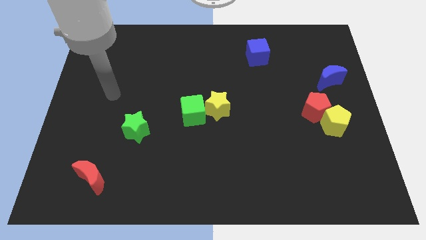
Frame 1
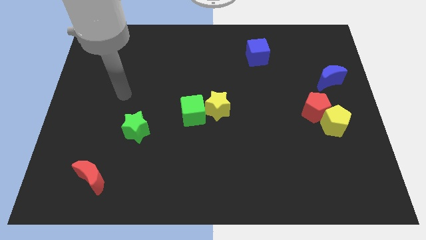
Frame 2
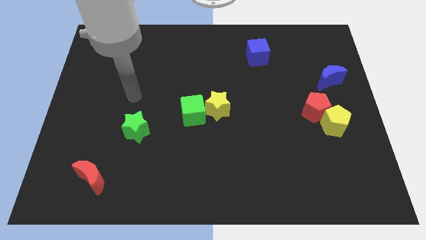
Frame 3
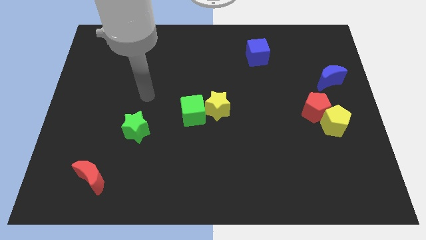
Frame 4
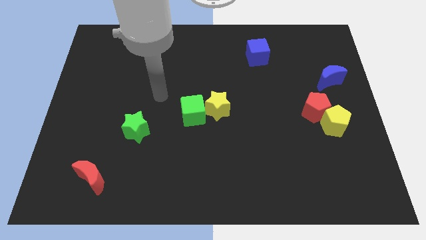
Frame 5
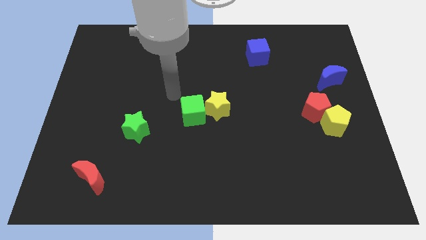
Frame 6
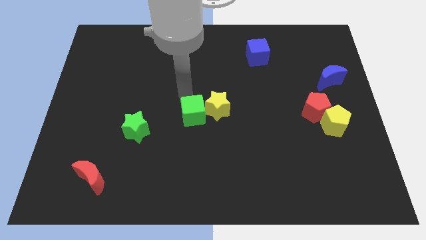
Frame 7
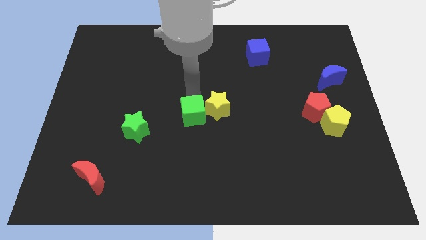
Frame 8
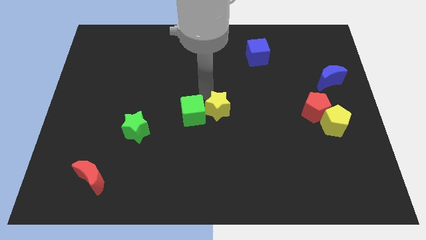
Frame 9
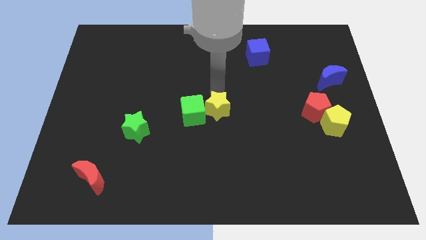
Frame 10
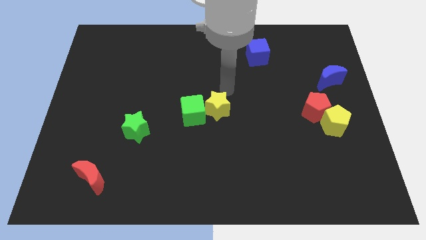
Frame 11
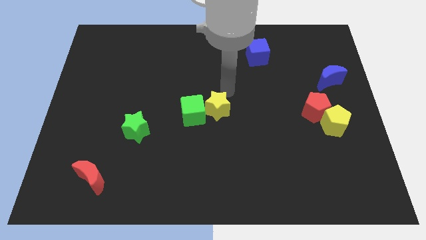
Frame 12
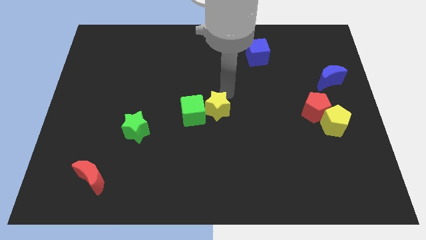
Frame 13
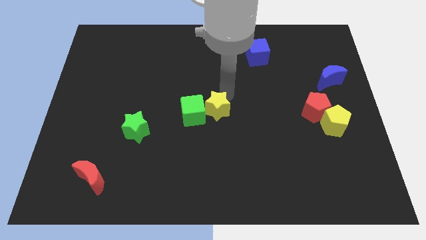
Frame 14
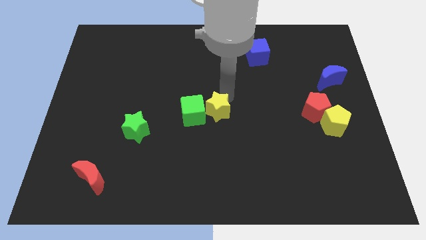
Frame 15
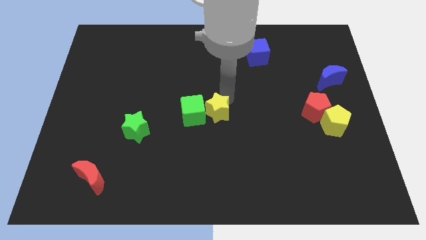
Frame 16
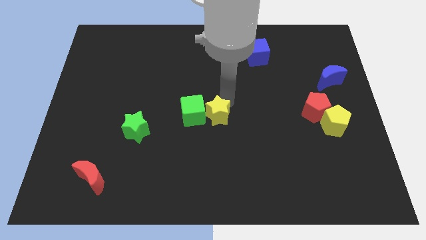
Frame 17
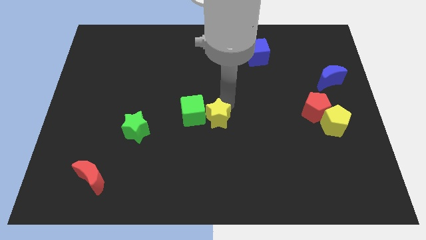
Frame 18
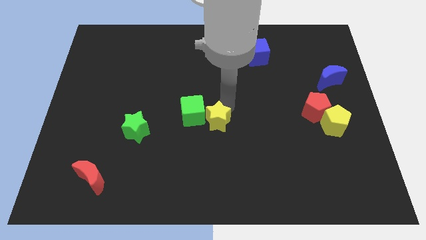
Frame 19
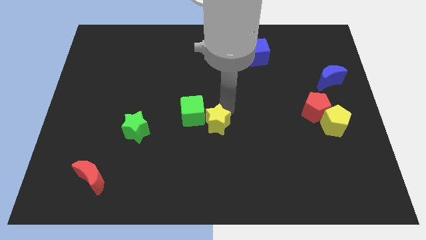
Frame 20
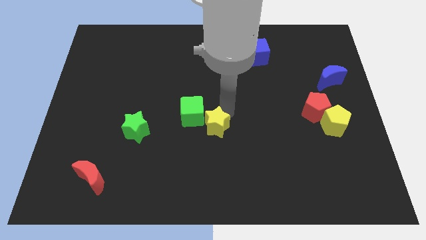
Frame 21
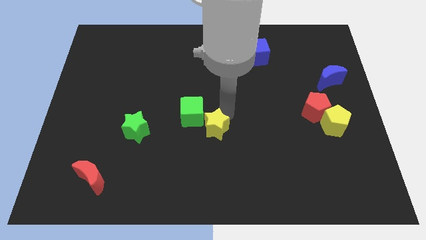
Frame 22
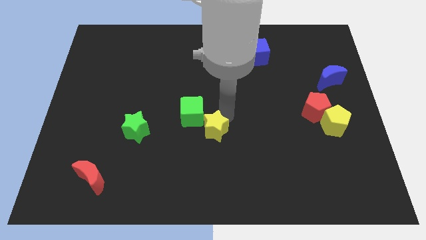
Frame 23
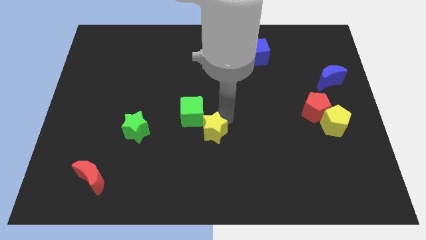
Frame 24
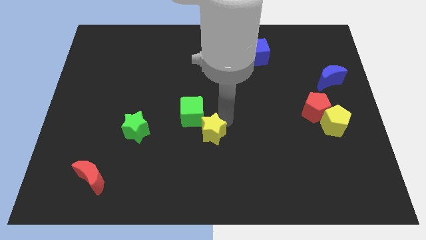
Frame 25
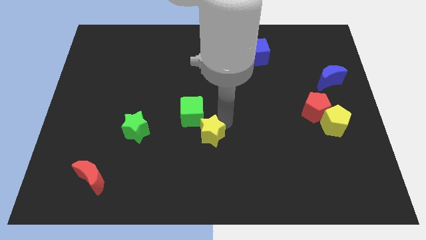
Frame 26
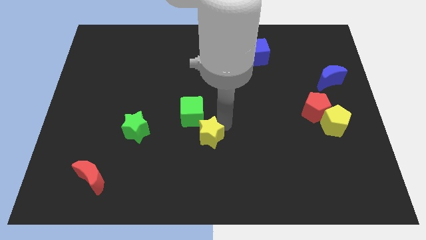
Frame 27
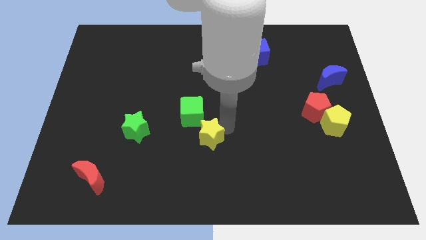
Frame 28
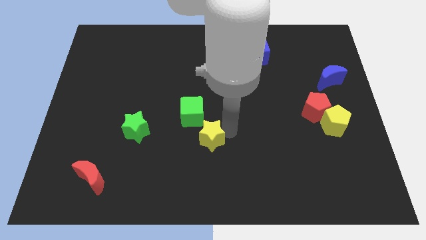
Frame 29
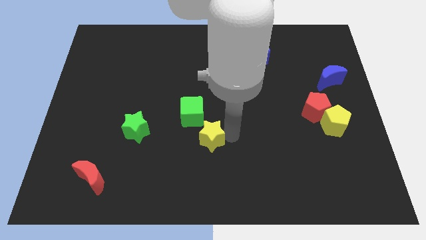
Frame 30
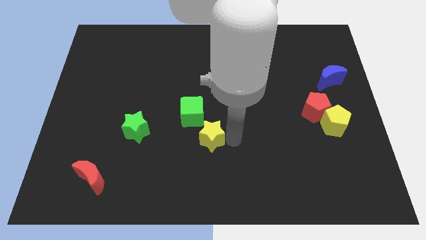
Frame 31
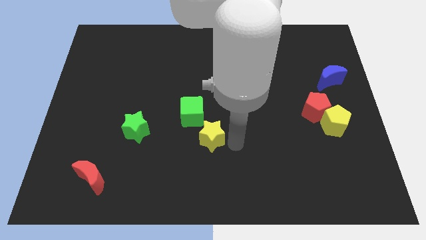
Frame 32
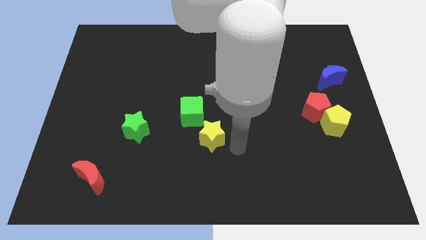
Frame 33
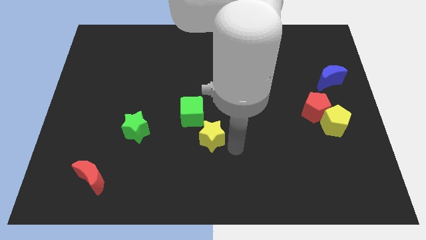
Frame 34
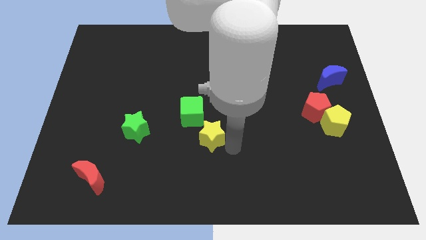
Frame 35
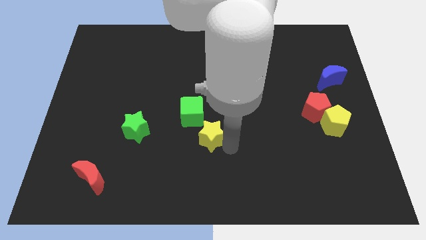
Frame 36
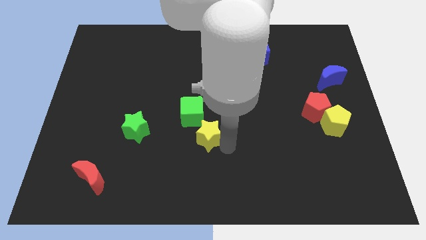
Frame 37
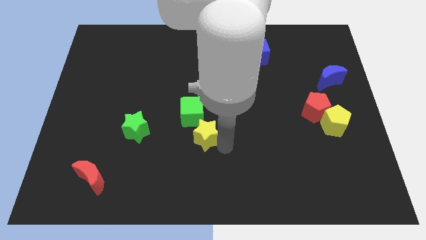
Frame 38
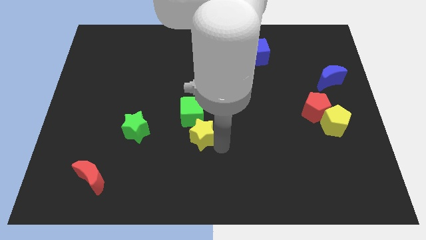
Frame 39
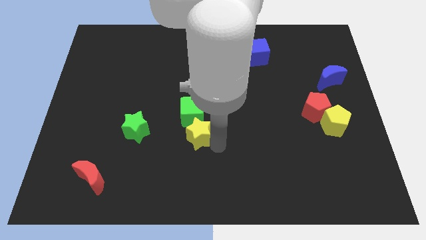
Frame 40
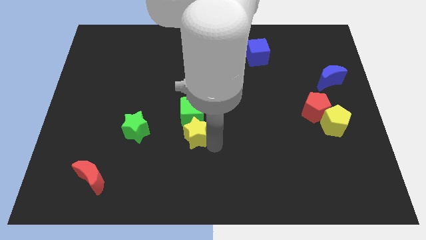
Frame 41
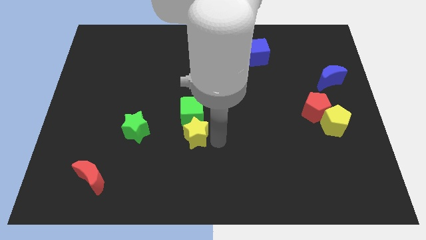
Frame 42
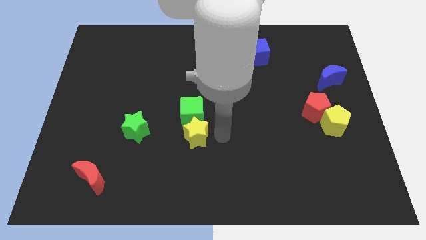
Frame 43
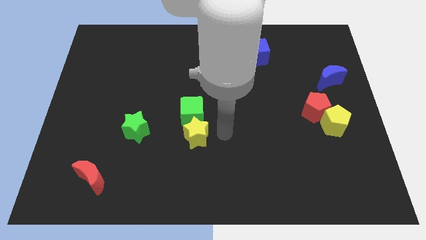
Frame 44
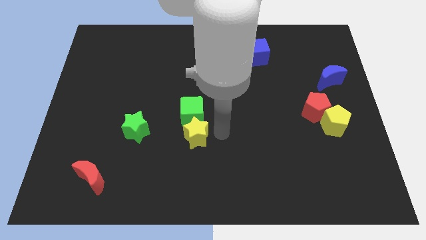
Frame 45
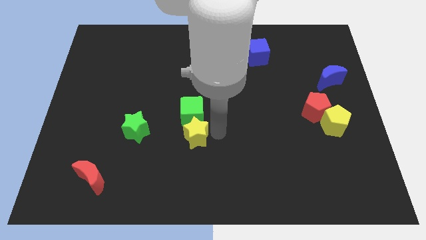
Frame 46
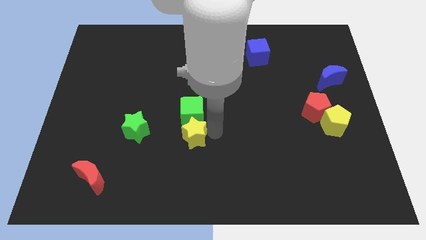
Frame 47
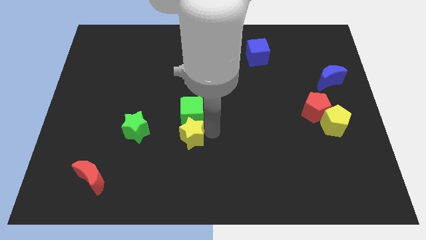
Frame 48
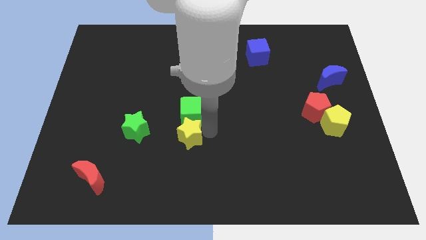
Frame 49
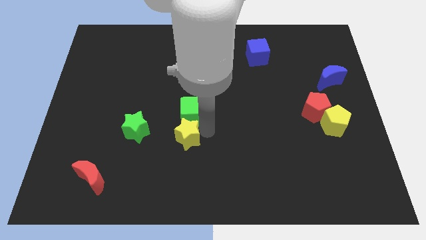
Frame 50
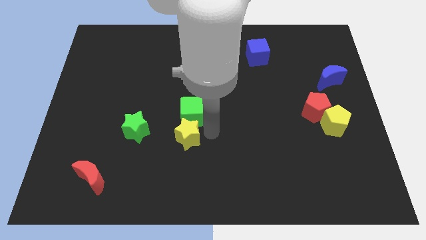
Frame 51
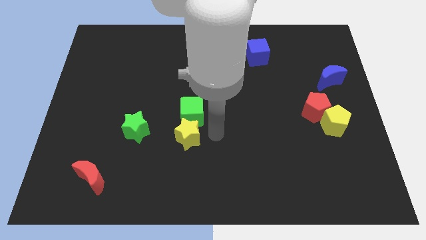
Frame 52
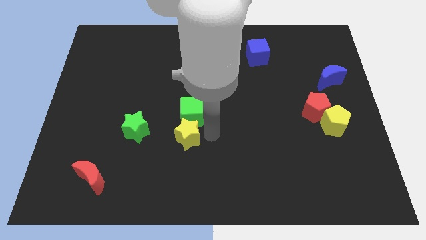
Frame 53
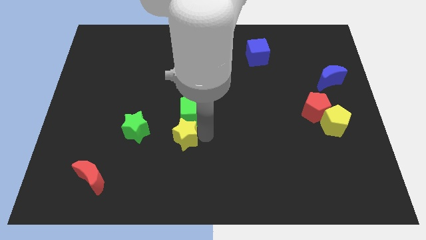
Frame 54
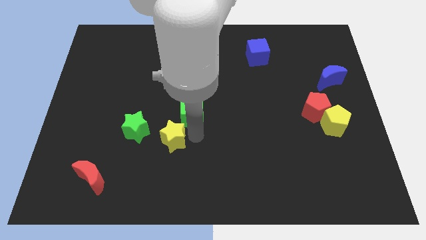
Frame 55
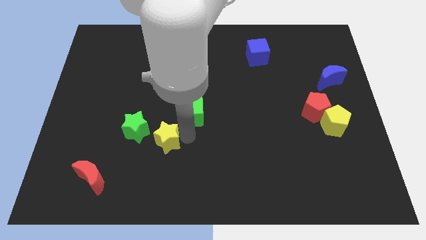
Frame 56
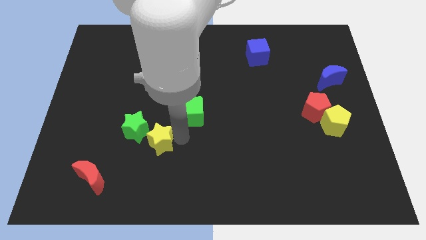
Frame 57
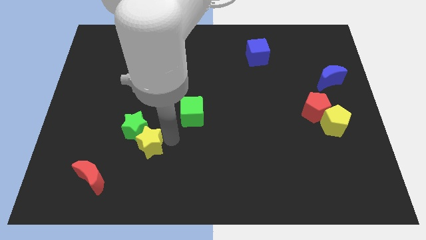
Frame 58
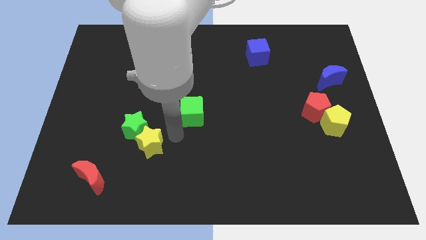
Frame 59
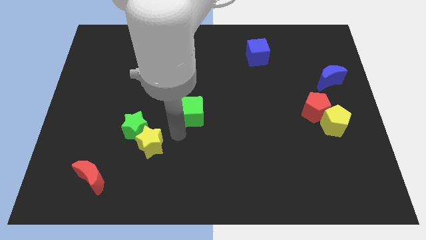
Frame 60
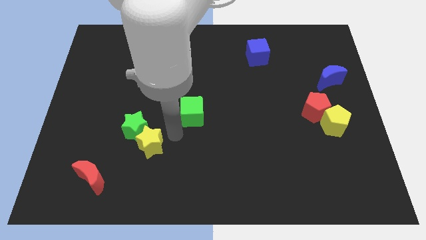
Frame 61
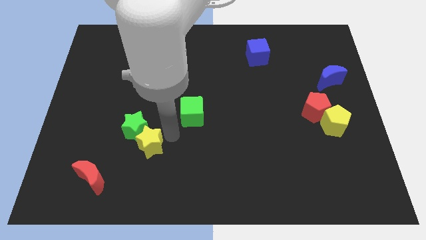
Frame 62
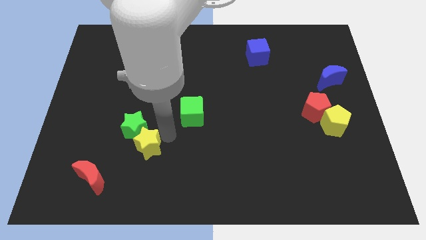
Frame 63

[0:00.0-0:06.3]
put the yellow star diagonally up and to the right of the red moon

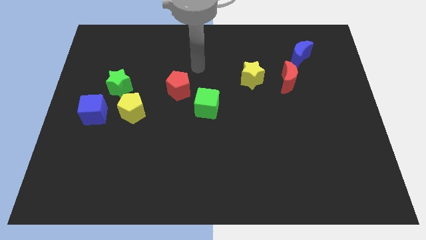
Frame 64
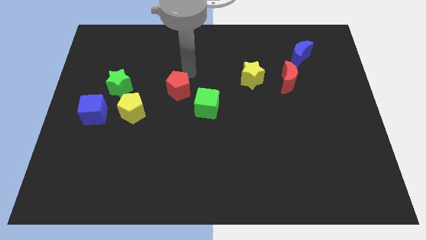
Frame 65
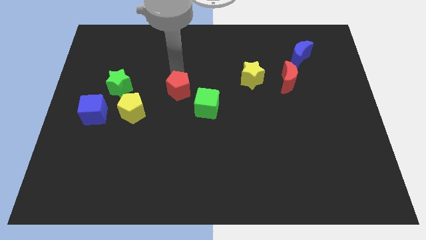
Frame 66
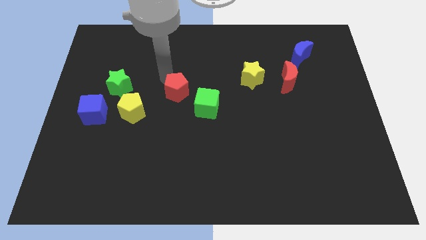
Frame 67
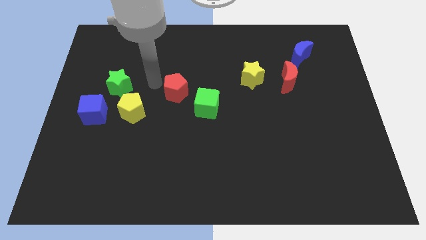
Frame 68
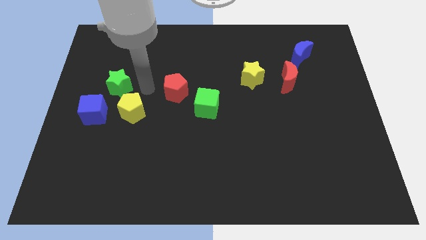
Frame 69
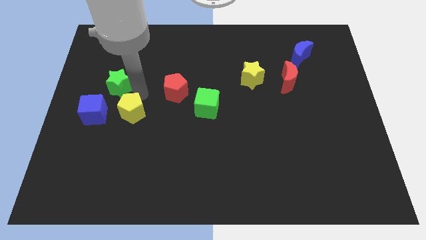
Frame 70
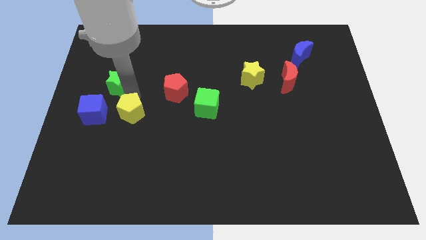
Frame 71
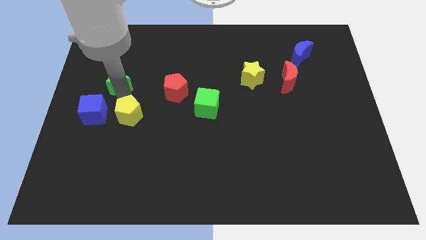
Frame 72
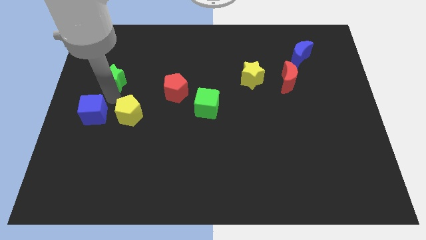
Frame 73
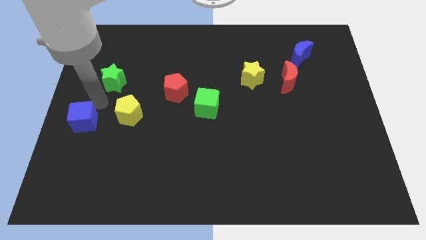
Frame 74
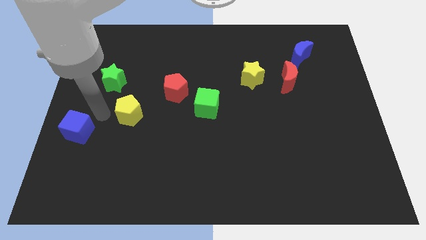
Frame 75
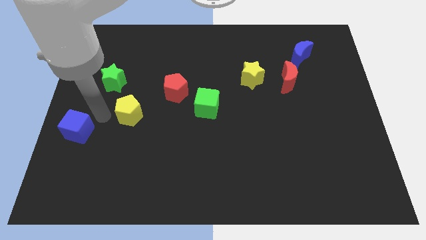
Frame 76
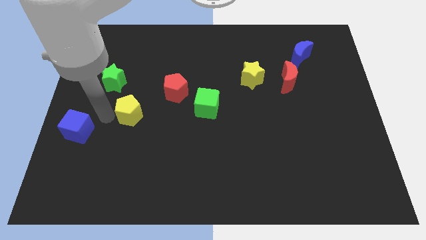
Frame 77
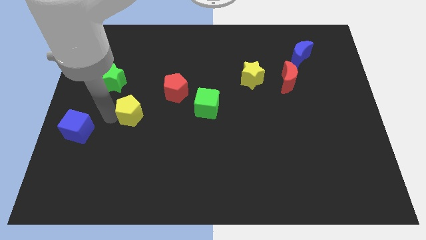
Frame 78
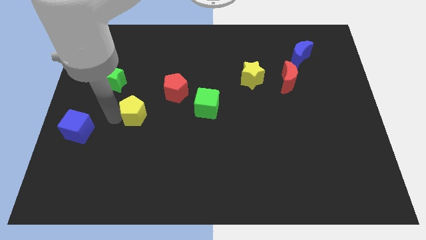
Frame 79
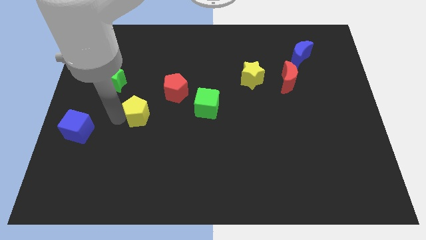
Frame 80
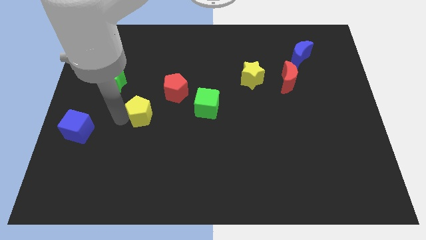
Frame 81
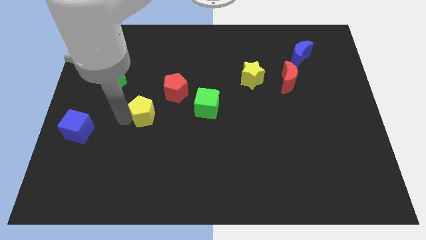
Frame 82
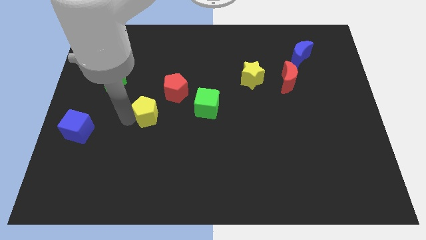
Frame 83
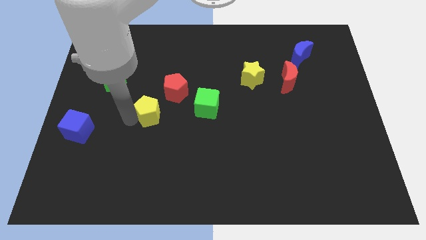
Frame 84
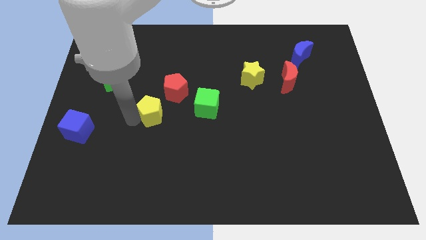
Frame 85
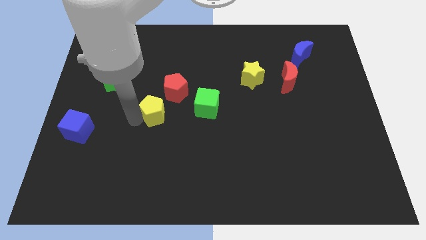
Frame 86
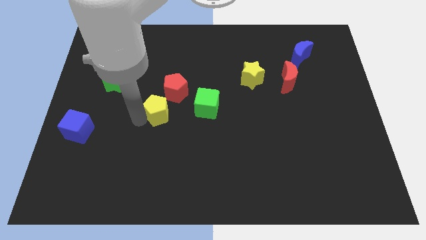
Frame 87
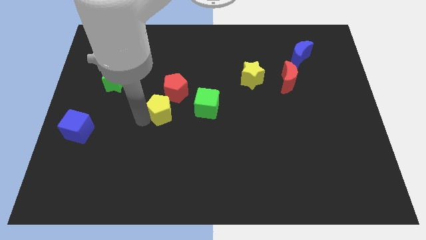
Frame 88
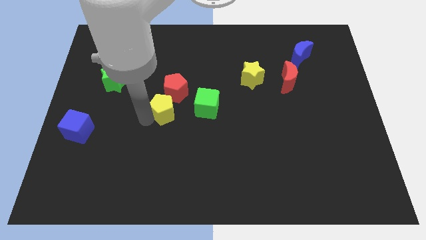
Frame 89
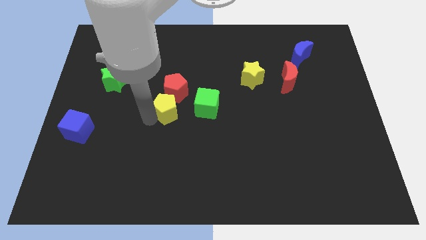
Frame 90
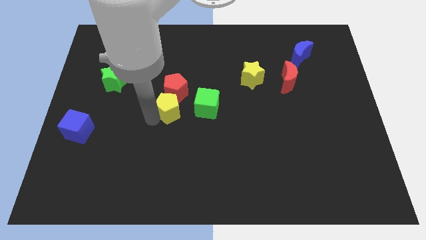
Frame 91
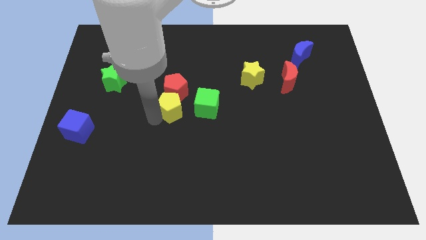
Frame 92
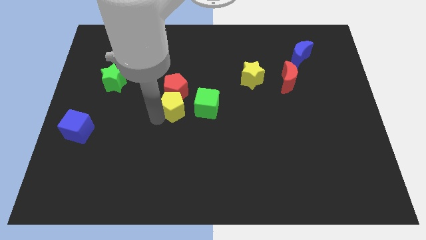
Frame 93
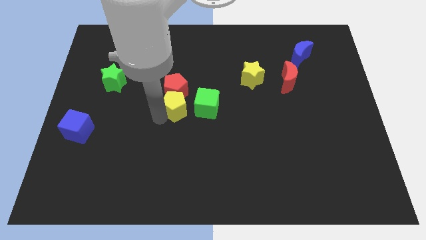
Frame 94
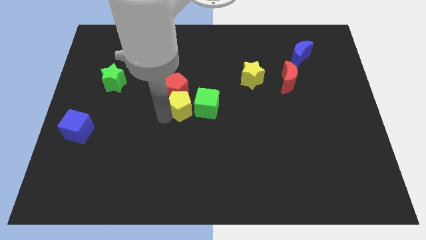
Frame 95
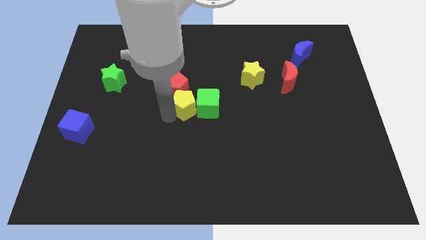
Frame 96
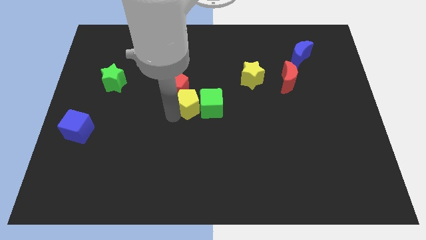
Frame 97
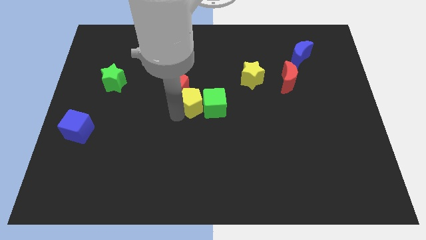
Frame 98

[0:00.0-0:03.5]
move the yellow pentagon right of the red pentagon
